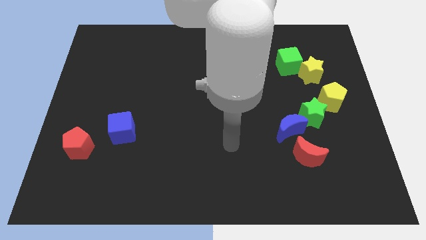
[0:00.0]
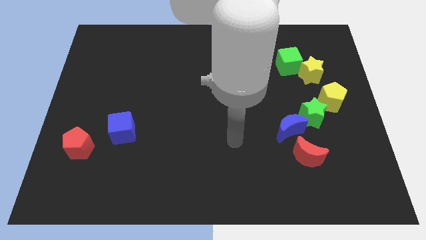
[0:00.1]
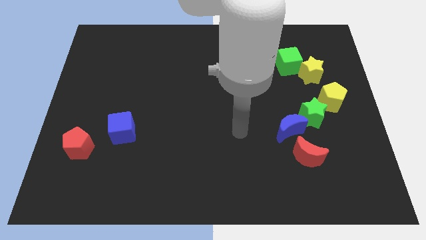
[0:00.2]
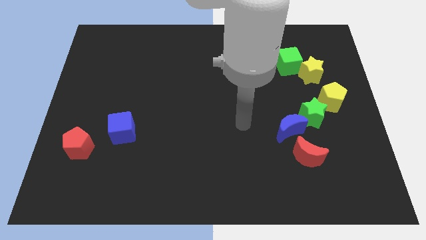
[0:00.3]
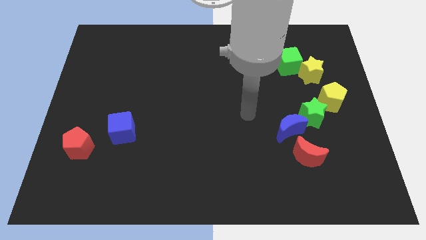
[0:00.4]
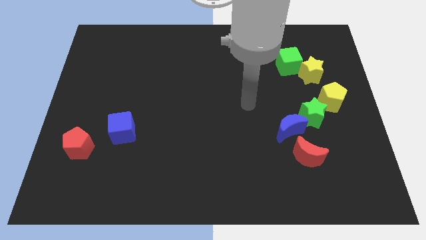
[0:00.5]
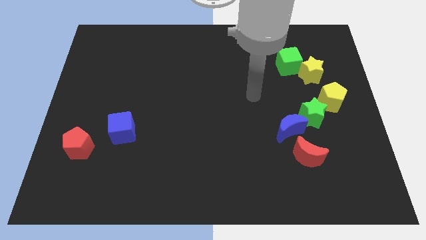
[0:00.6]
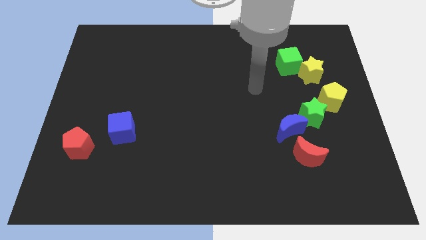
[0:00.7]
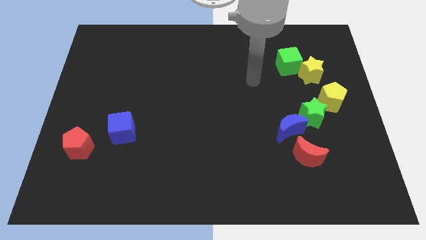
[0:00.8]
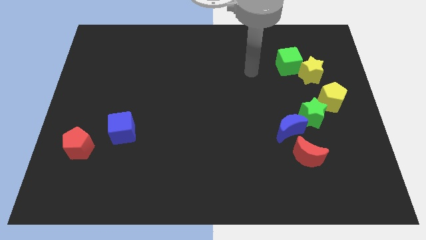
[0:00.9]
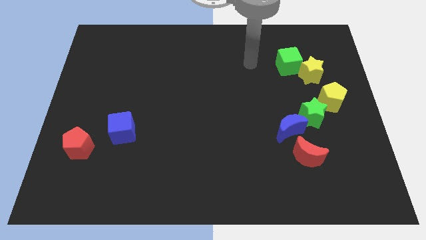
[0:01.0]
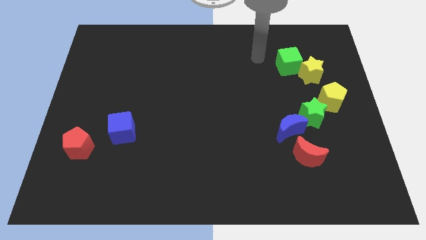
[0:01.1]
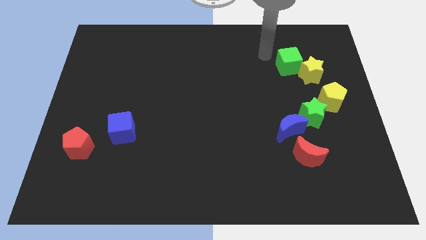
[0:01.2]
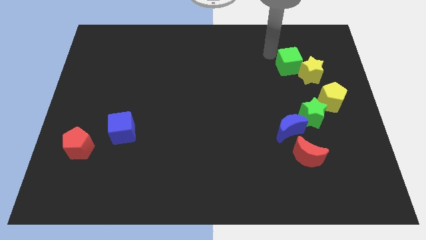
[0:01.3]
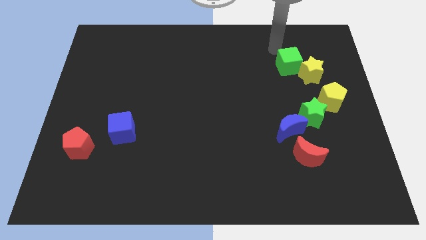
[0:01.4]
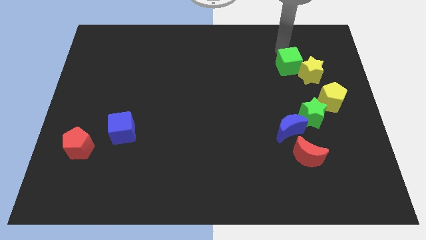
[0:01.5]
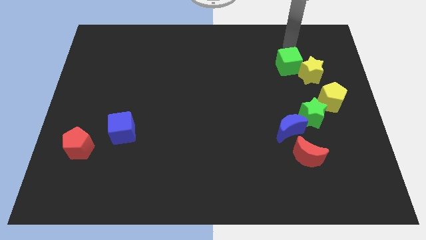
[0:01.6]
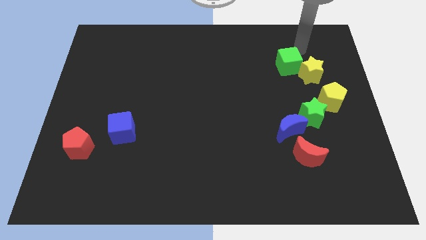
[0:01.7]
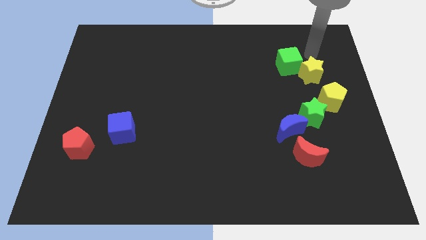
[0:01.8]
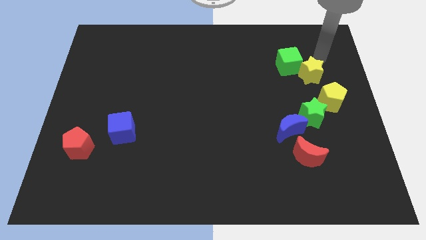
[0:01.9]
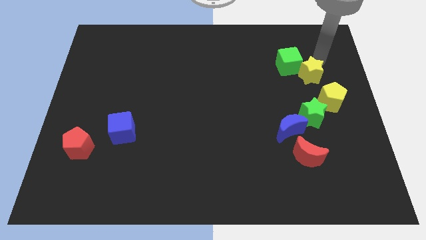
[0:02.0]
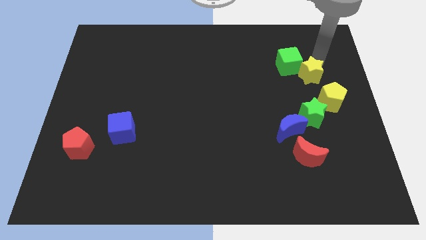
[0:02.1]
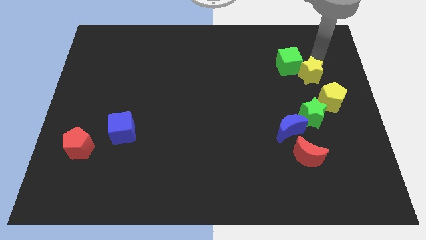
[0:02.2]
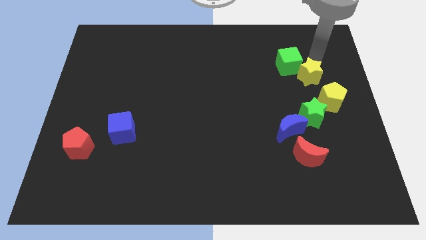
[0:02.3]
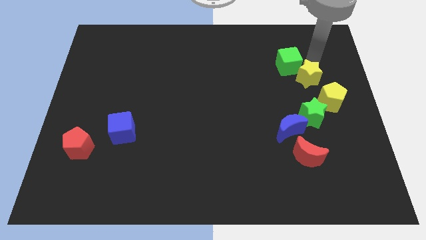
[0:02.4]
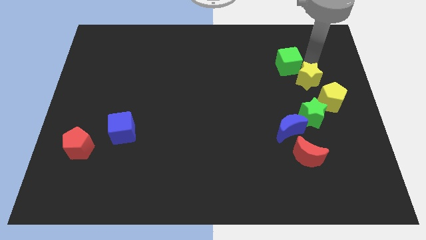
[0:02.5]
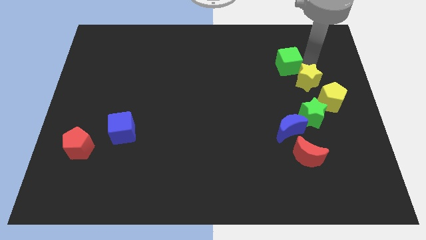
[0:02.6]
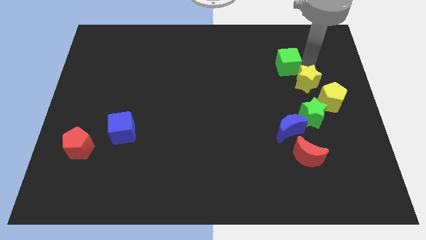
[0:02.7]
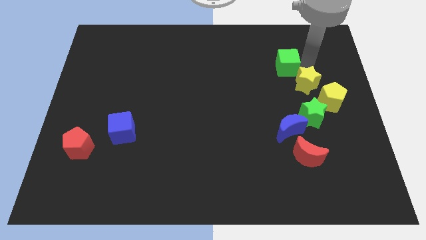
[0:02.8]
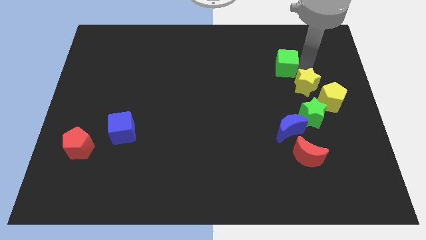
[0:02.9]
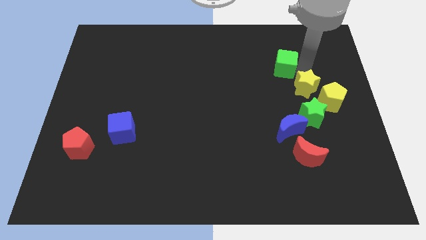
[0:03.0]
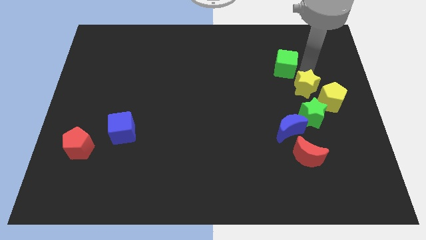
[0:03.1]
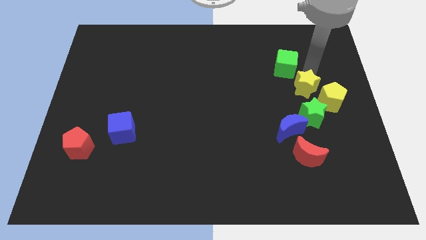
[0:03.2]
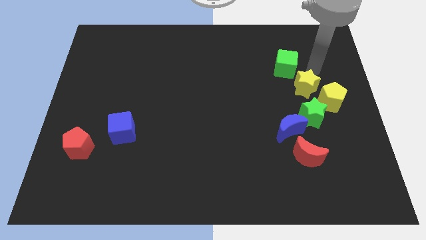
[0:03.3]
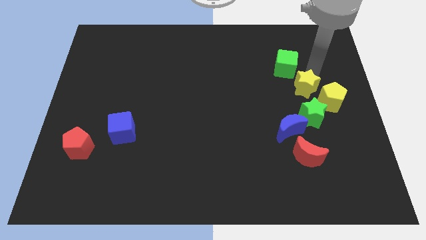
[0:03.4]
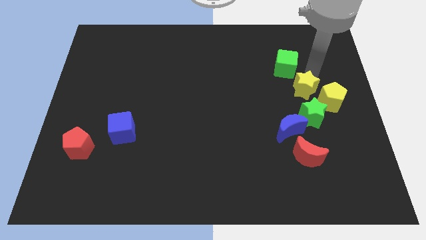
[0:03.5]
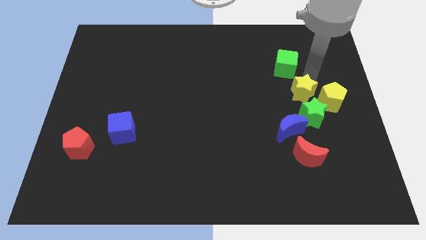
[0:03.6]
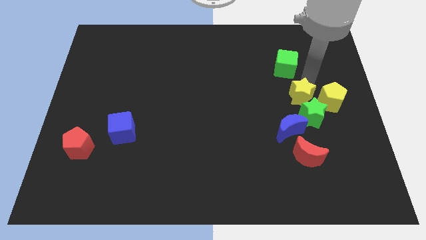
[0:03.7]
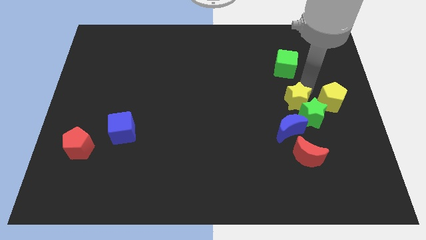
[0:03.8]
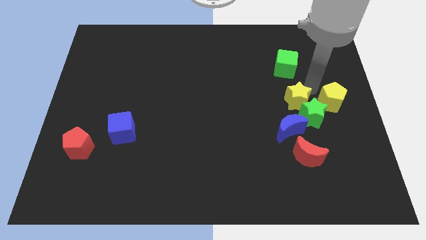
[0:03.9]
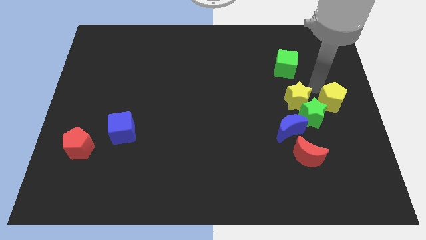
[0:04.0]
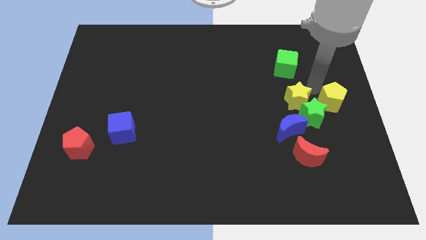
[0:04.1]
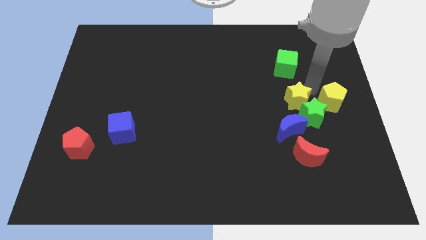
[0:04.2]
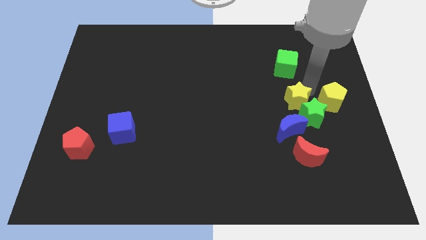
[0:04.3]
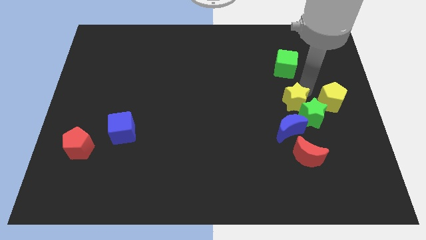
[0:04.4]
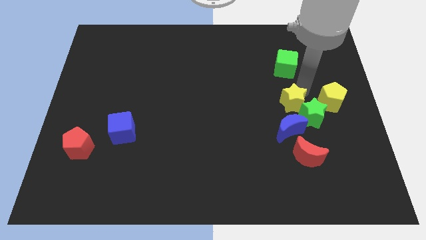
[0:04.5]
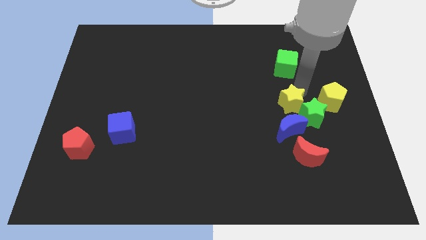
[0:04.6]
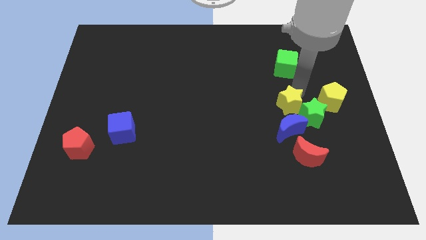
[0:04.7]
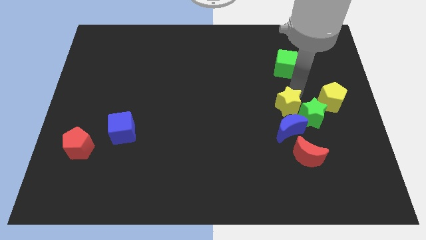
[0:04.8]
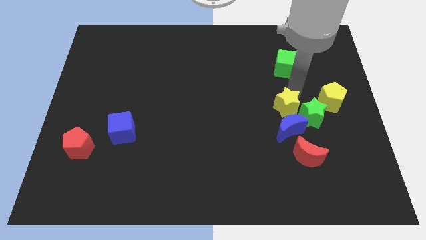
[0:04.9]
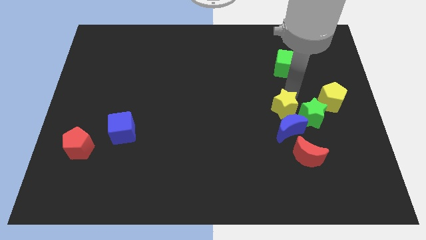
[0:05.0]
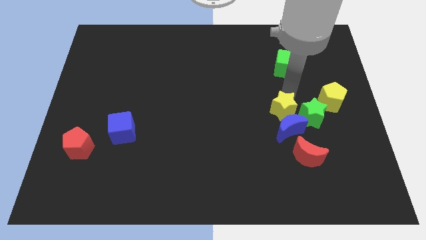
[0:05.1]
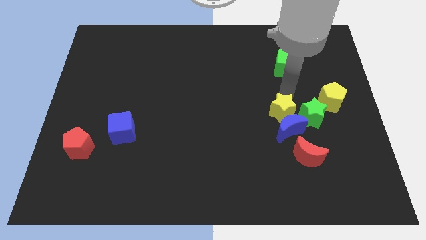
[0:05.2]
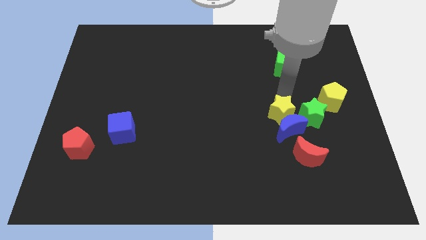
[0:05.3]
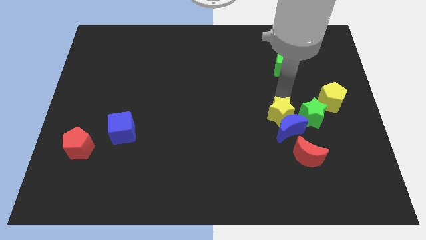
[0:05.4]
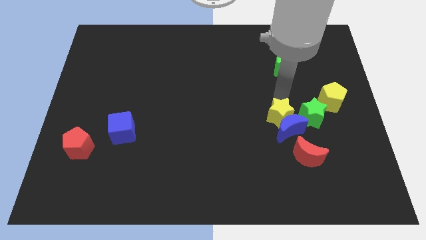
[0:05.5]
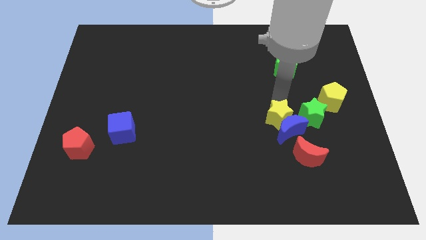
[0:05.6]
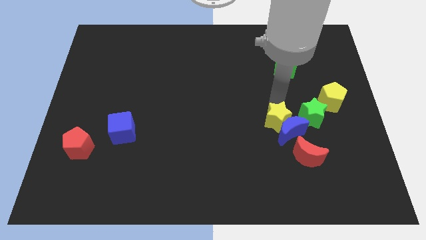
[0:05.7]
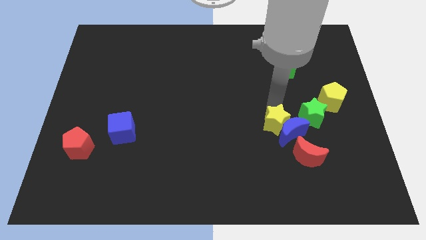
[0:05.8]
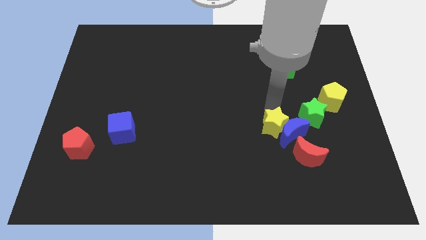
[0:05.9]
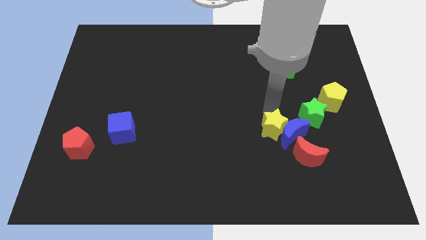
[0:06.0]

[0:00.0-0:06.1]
push the yellow star diagonally down and to the left of the blue moon
